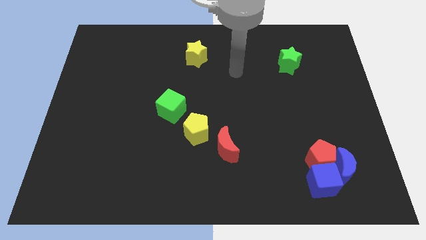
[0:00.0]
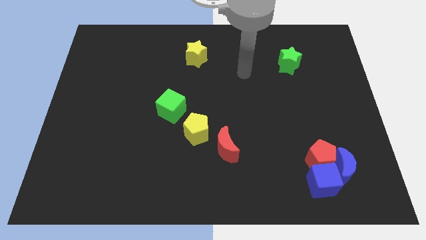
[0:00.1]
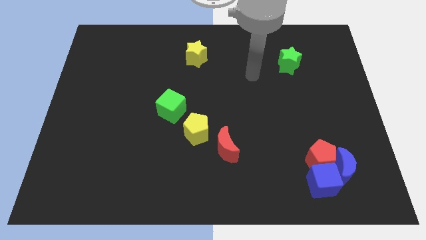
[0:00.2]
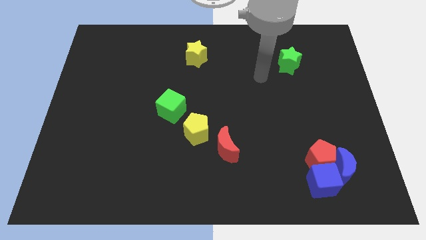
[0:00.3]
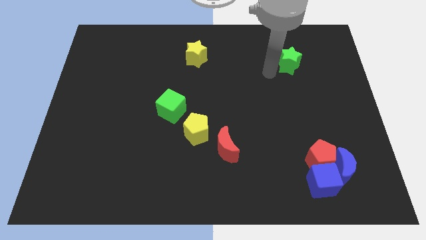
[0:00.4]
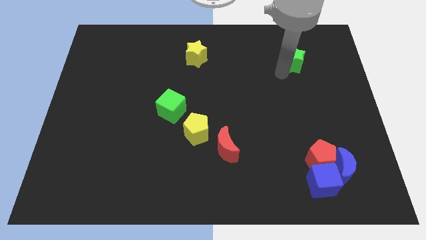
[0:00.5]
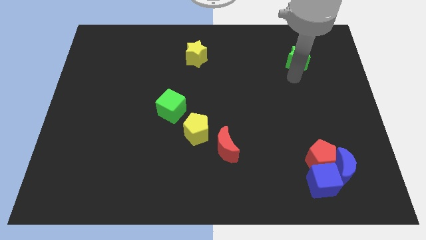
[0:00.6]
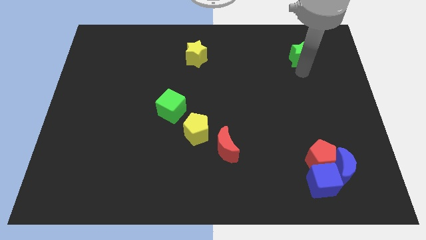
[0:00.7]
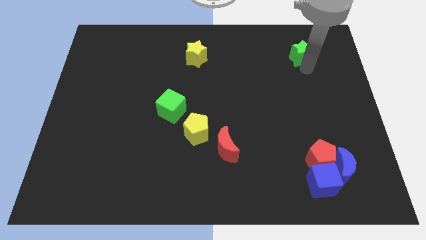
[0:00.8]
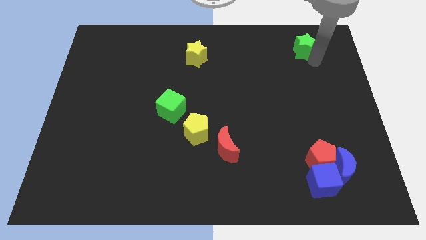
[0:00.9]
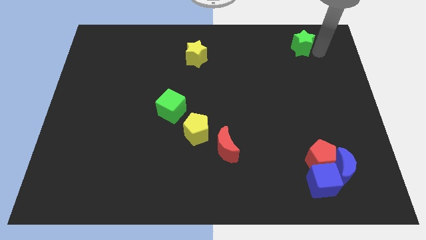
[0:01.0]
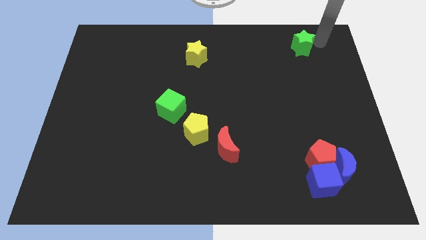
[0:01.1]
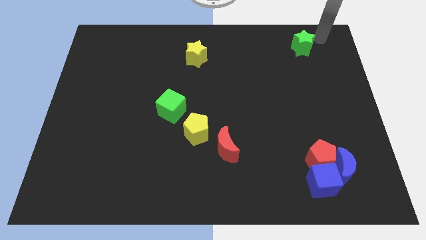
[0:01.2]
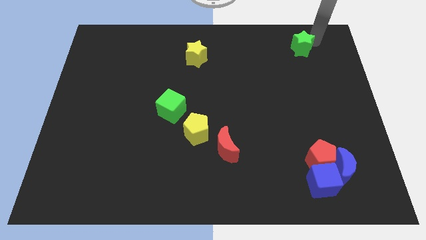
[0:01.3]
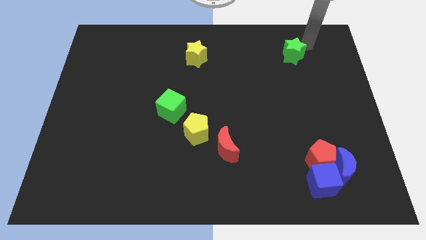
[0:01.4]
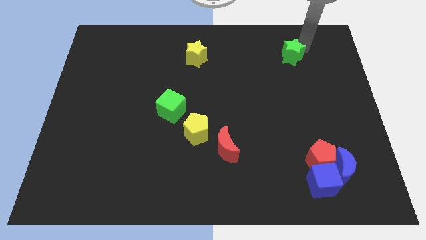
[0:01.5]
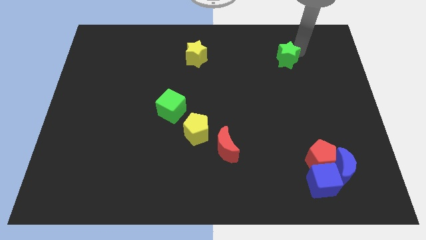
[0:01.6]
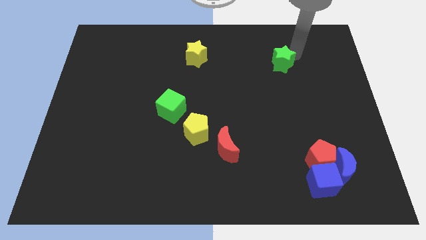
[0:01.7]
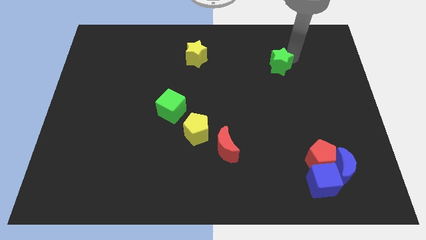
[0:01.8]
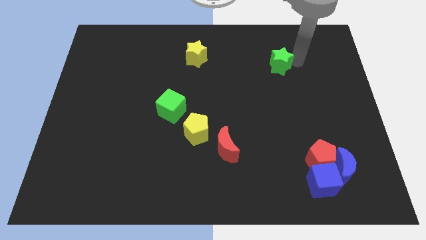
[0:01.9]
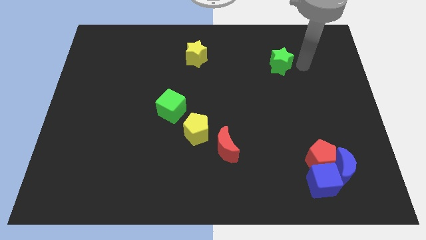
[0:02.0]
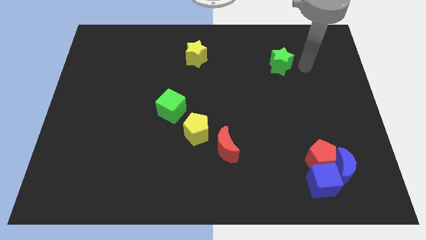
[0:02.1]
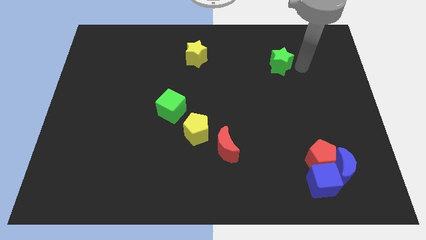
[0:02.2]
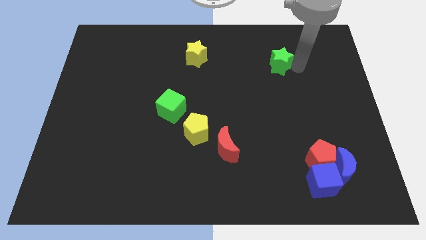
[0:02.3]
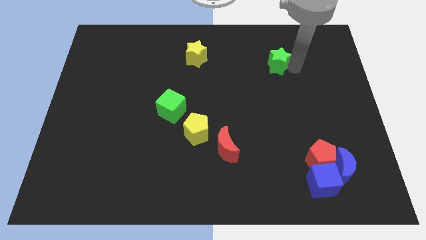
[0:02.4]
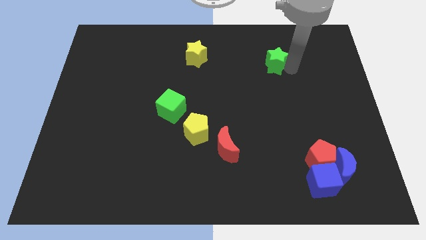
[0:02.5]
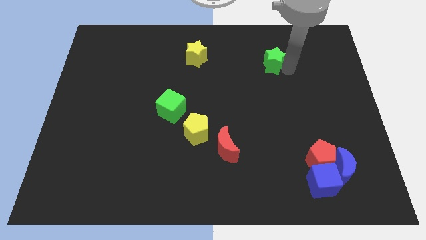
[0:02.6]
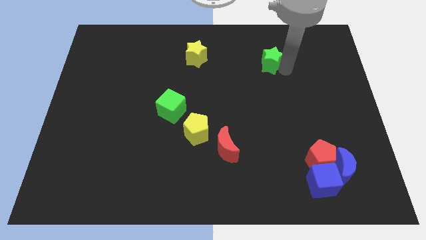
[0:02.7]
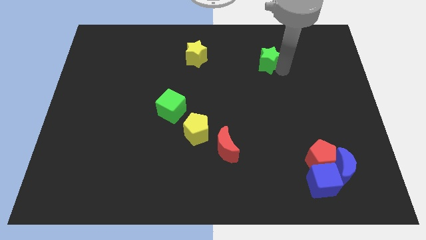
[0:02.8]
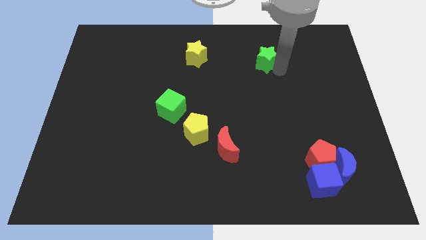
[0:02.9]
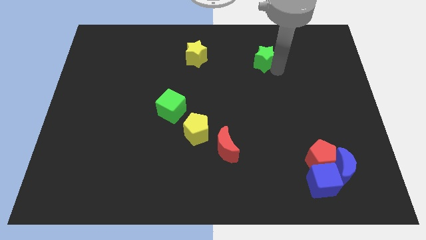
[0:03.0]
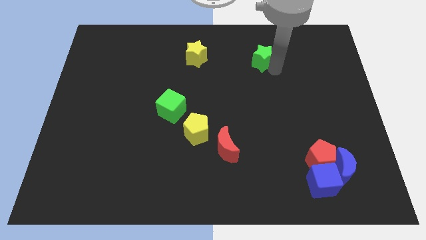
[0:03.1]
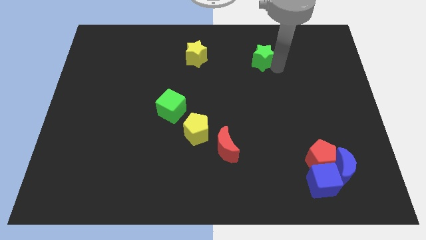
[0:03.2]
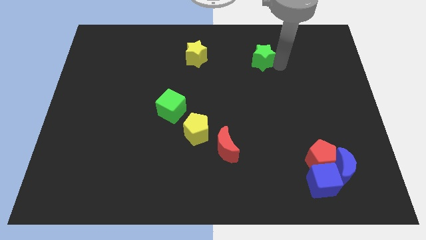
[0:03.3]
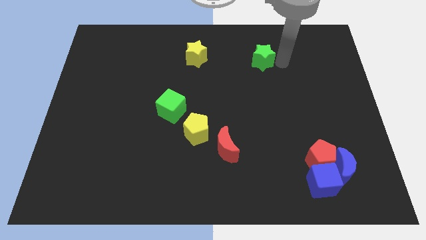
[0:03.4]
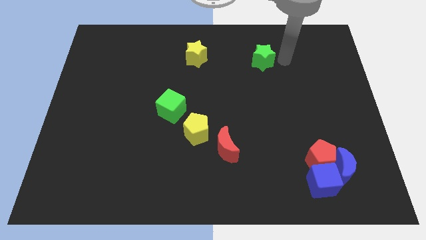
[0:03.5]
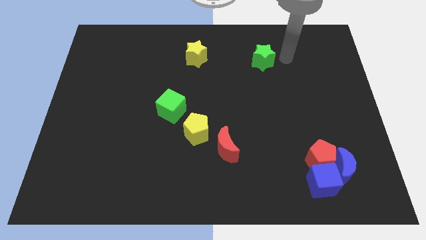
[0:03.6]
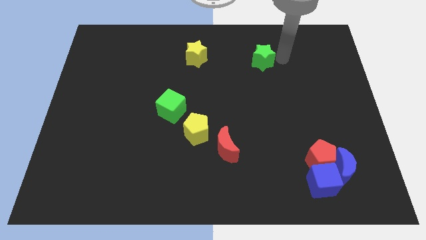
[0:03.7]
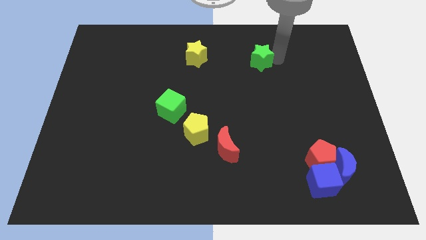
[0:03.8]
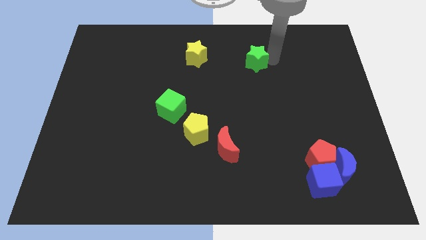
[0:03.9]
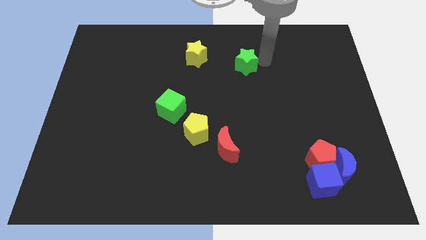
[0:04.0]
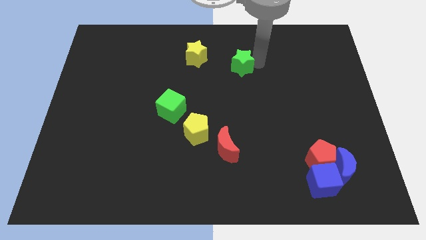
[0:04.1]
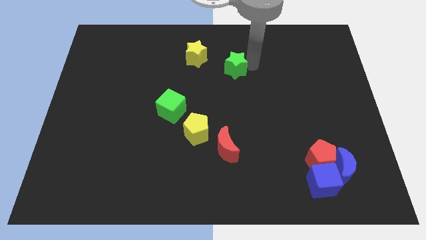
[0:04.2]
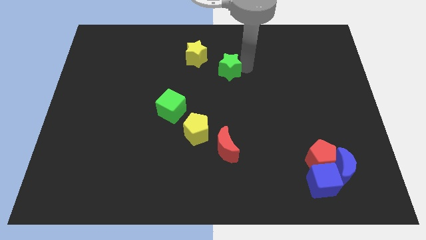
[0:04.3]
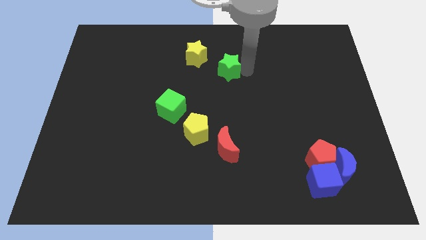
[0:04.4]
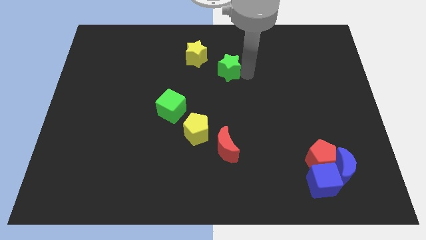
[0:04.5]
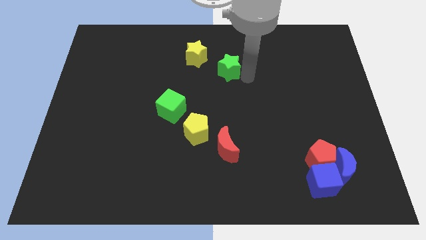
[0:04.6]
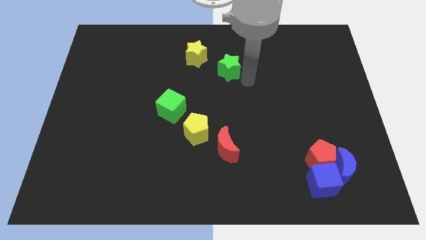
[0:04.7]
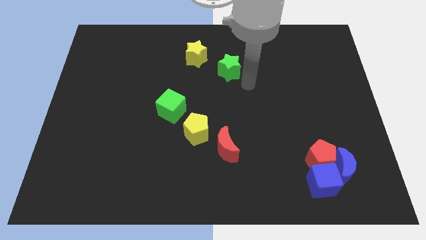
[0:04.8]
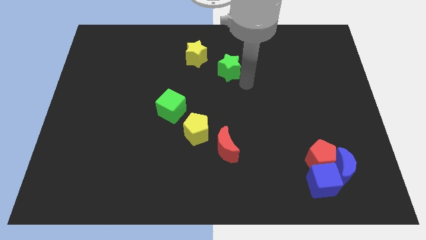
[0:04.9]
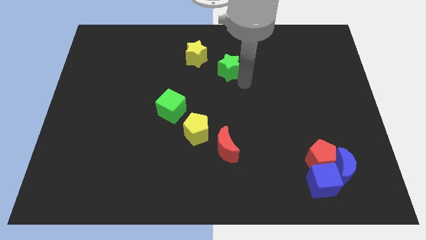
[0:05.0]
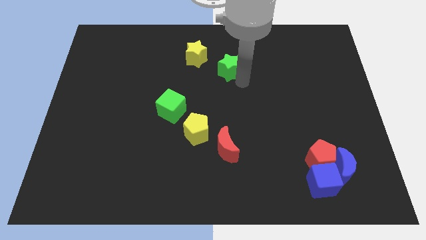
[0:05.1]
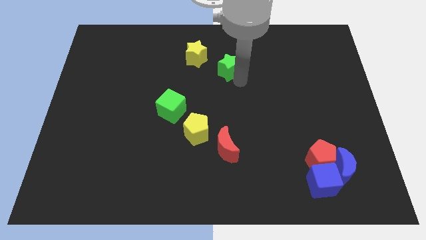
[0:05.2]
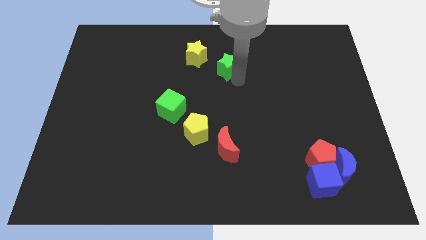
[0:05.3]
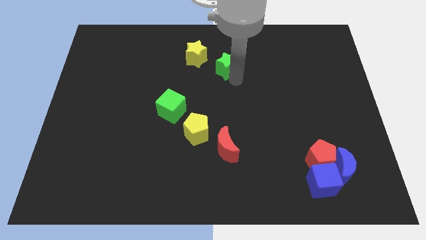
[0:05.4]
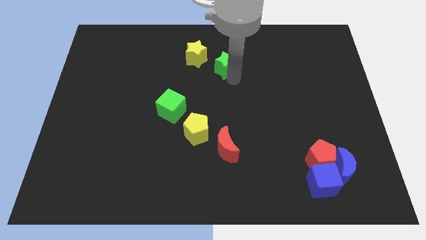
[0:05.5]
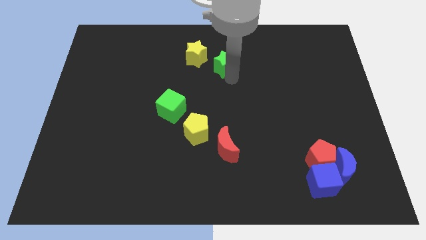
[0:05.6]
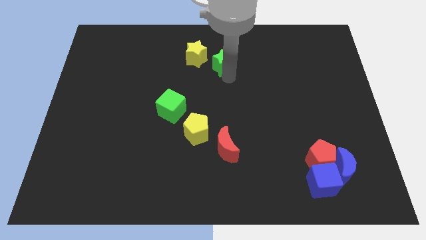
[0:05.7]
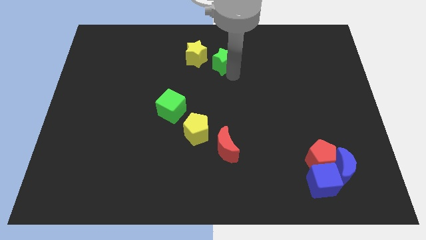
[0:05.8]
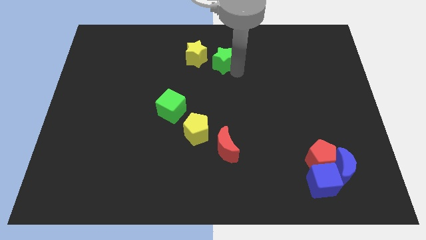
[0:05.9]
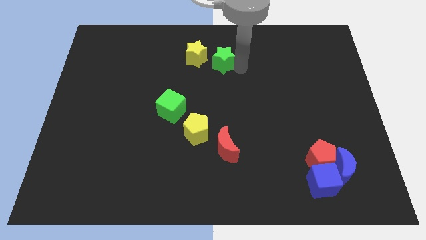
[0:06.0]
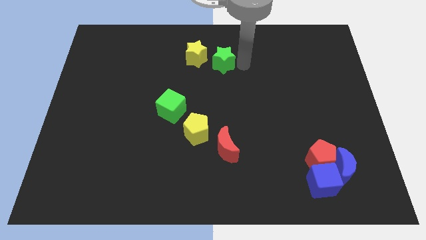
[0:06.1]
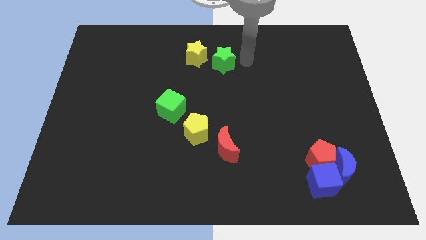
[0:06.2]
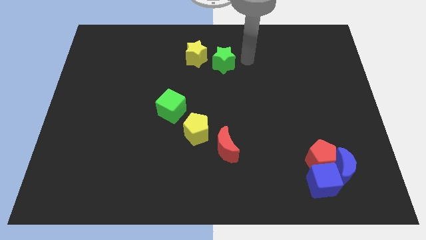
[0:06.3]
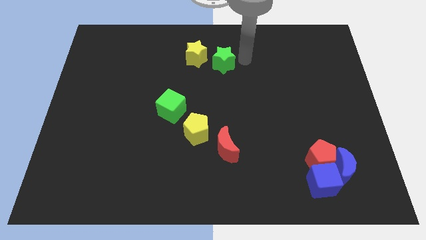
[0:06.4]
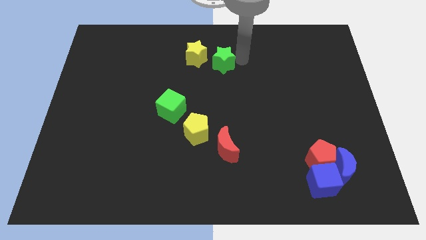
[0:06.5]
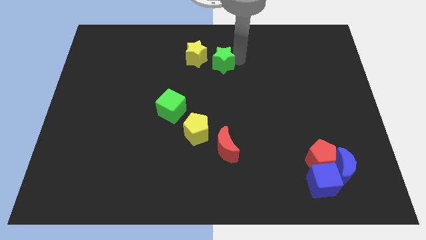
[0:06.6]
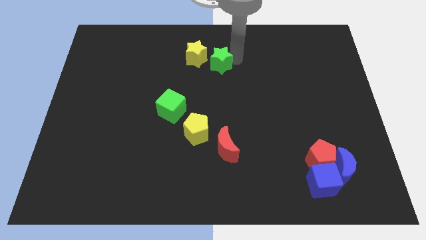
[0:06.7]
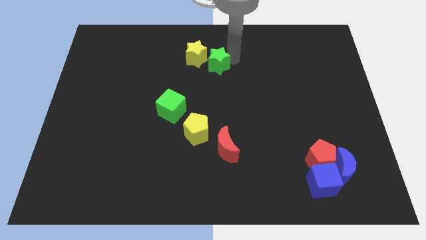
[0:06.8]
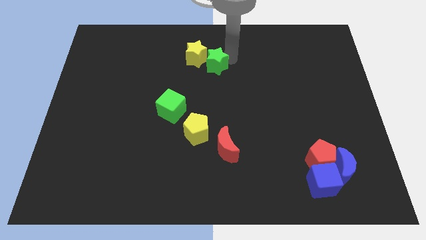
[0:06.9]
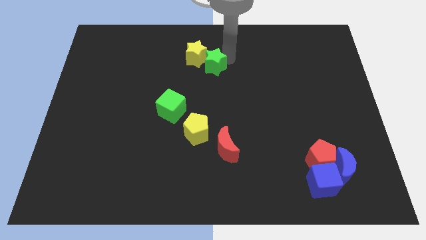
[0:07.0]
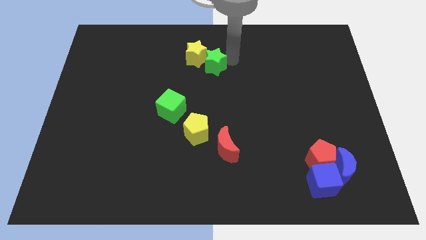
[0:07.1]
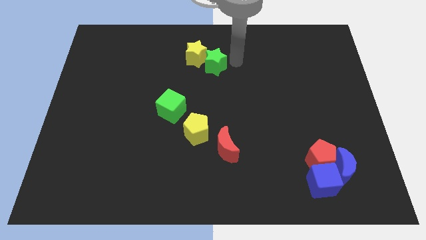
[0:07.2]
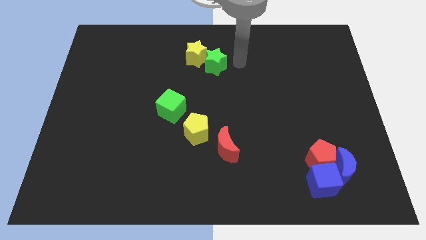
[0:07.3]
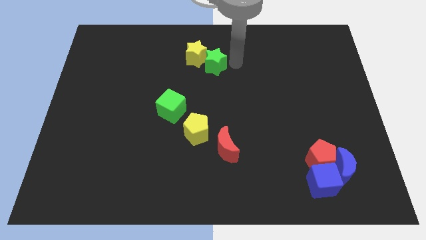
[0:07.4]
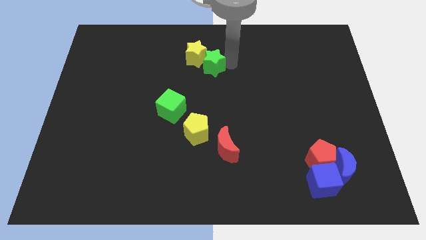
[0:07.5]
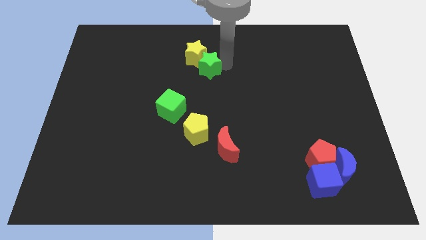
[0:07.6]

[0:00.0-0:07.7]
push the green star left

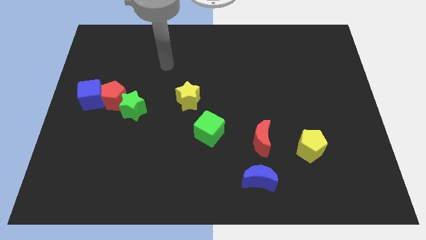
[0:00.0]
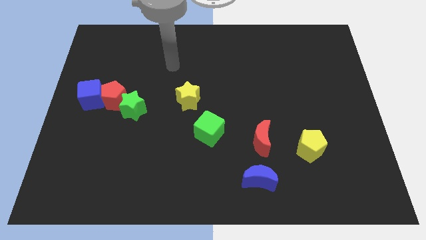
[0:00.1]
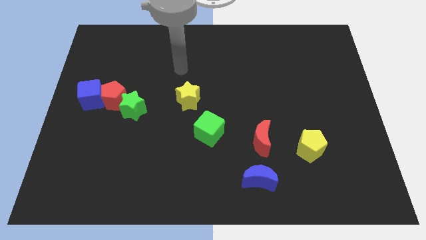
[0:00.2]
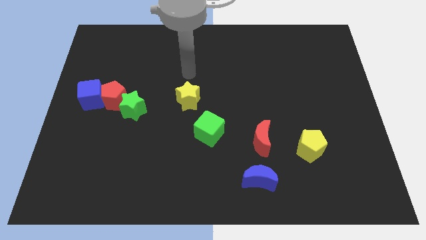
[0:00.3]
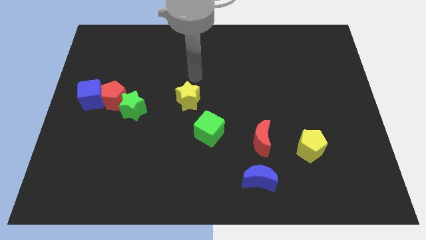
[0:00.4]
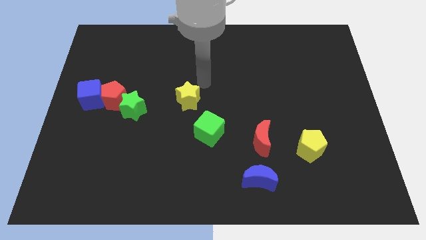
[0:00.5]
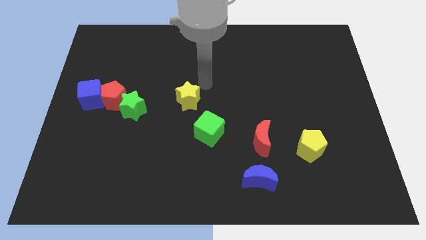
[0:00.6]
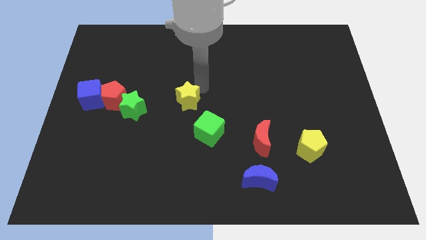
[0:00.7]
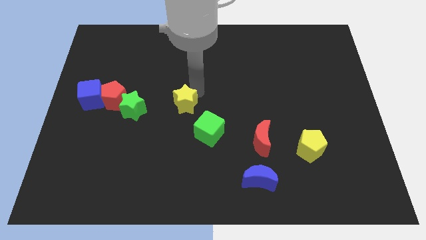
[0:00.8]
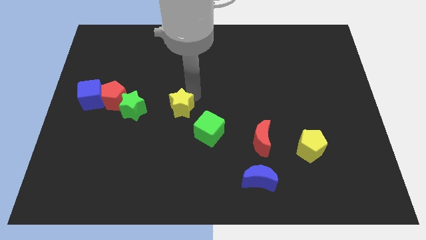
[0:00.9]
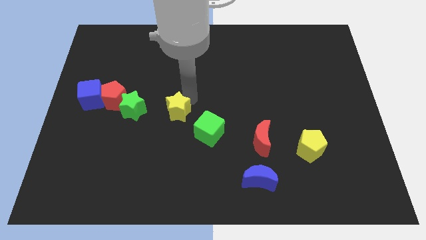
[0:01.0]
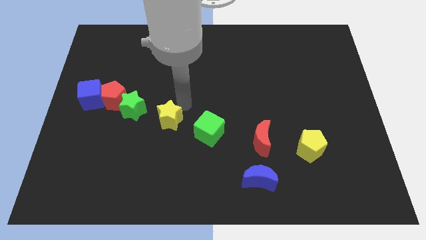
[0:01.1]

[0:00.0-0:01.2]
push the yellow star diagonally downwards and to the left a little bit
